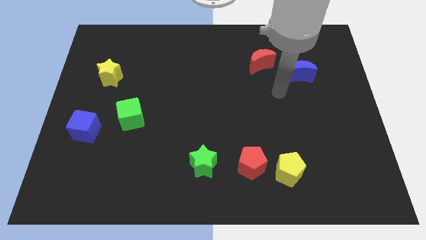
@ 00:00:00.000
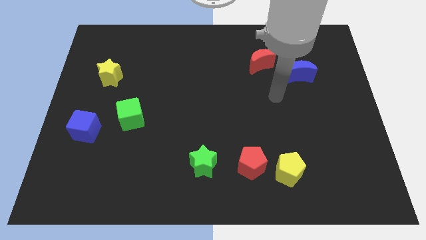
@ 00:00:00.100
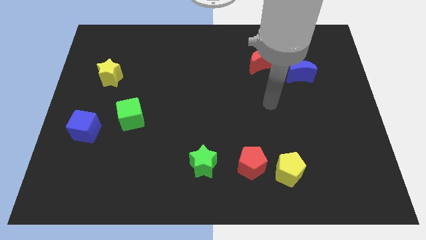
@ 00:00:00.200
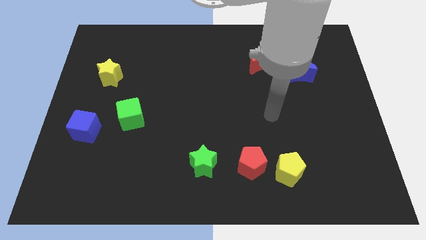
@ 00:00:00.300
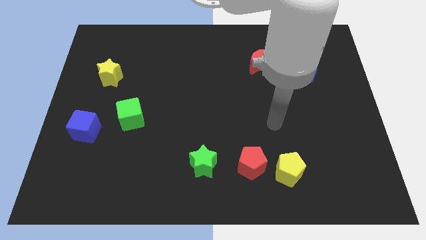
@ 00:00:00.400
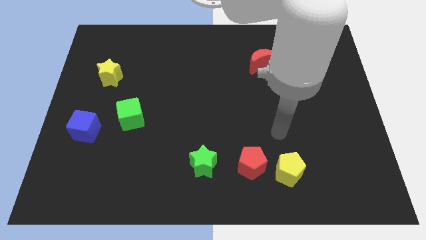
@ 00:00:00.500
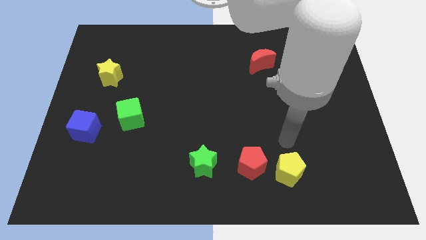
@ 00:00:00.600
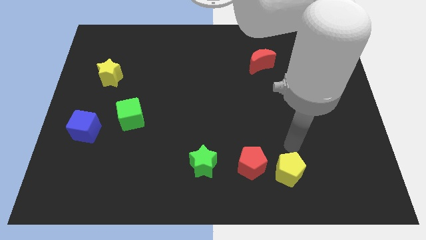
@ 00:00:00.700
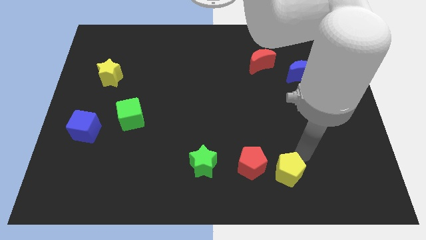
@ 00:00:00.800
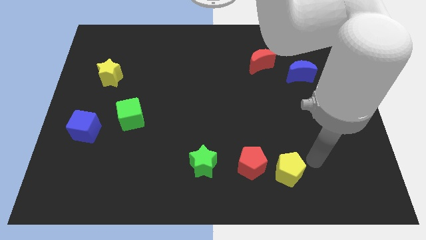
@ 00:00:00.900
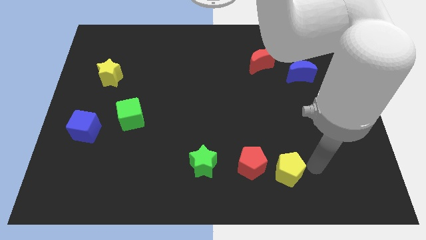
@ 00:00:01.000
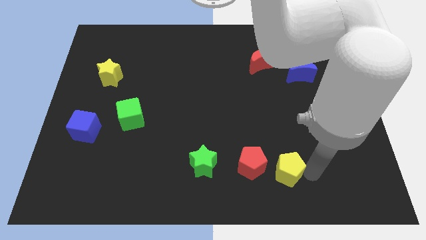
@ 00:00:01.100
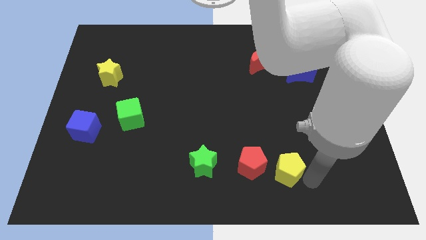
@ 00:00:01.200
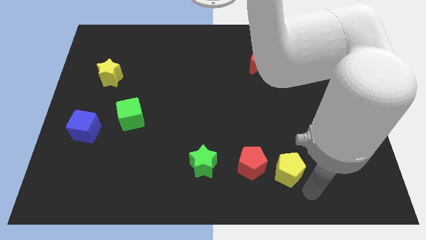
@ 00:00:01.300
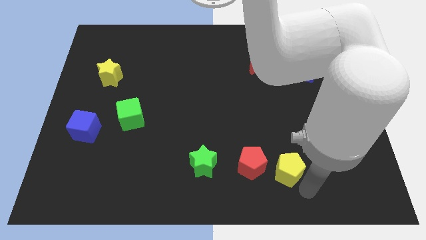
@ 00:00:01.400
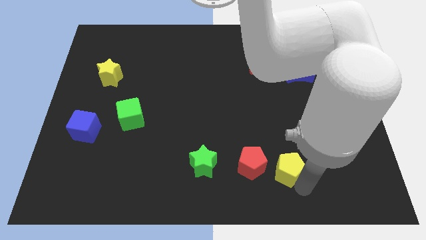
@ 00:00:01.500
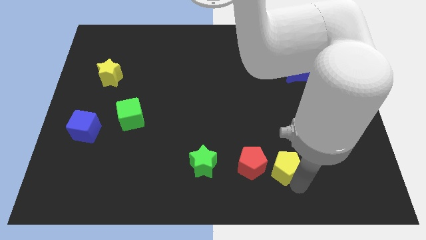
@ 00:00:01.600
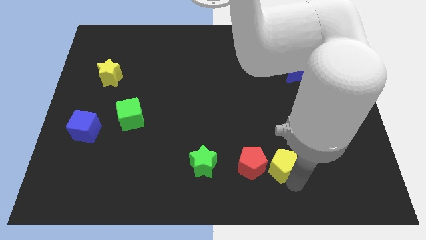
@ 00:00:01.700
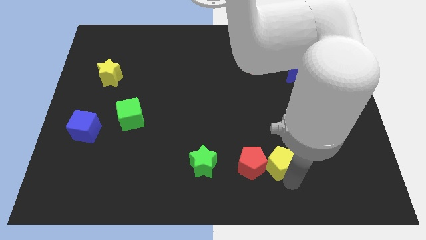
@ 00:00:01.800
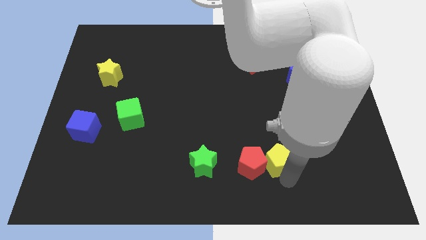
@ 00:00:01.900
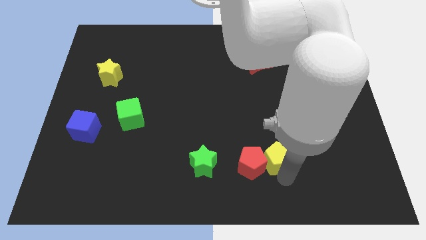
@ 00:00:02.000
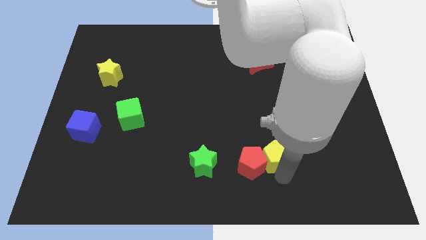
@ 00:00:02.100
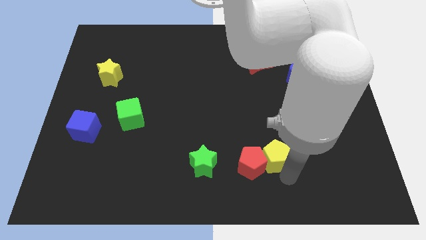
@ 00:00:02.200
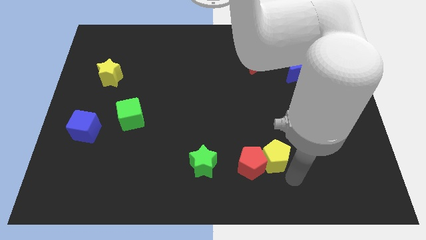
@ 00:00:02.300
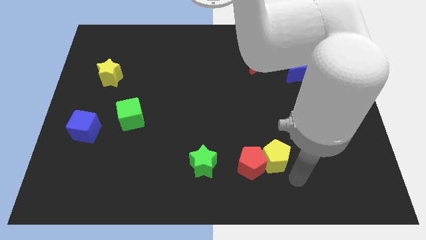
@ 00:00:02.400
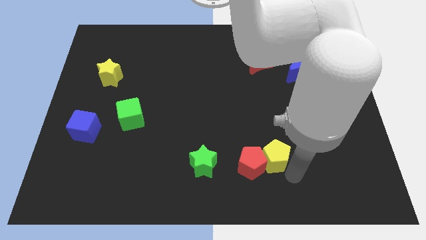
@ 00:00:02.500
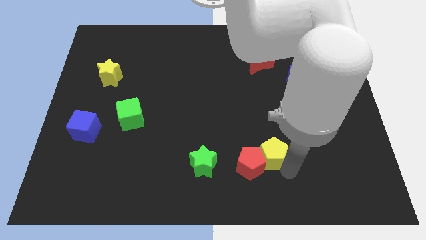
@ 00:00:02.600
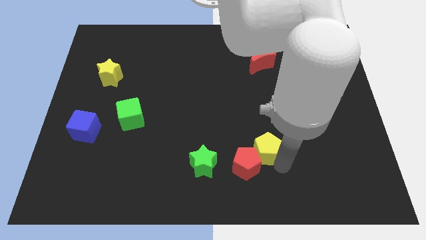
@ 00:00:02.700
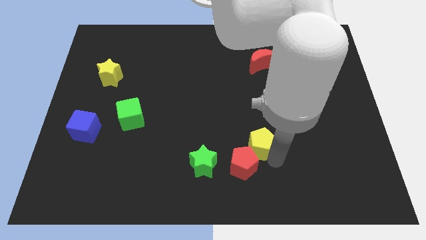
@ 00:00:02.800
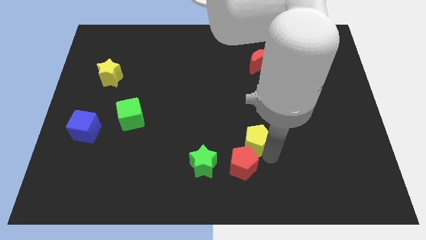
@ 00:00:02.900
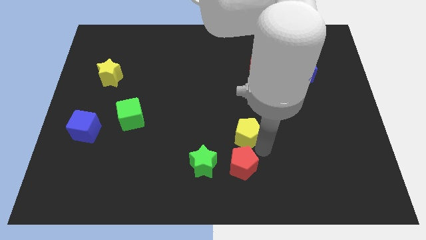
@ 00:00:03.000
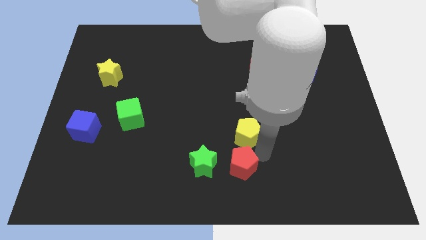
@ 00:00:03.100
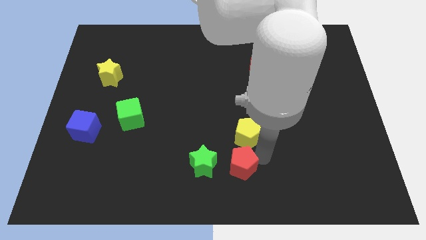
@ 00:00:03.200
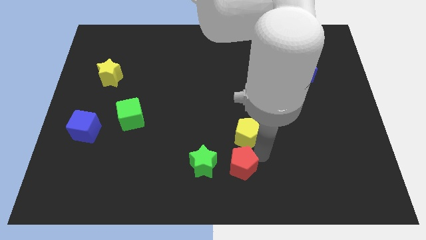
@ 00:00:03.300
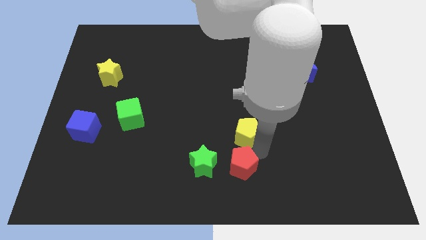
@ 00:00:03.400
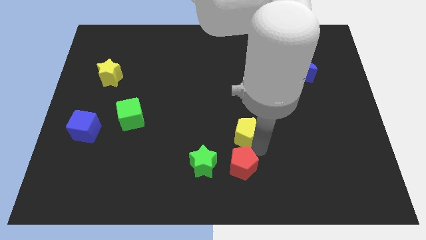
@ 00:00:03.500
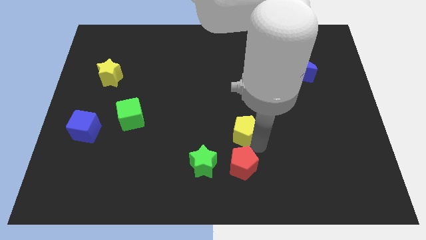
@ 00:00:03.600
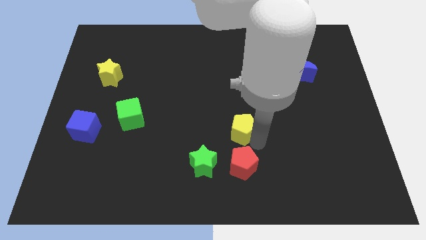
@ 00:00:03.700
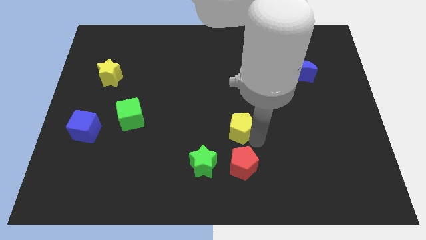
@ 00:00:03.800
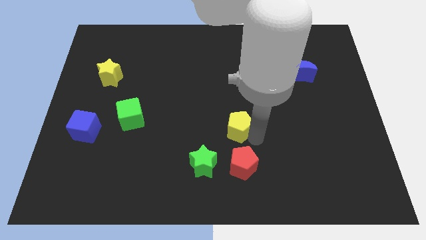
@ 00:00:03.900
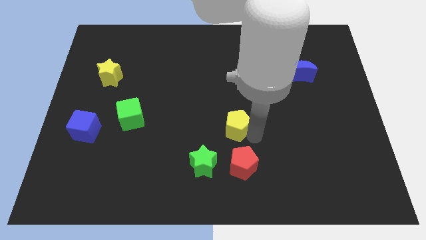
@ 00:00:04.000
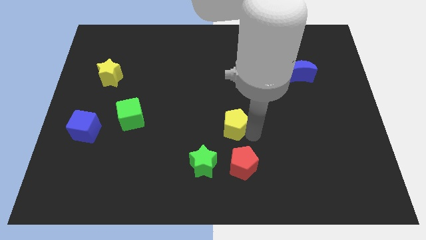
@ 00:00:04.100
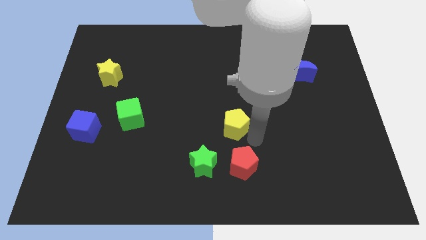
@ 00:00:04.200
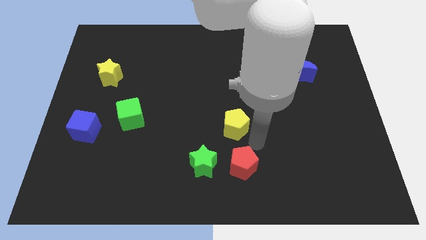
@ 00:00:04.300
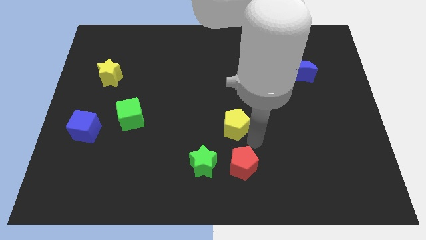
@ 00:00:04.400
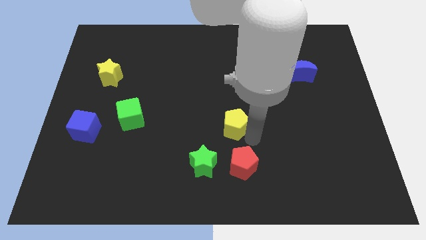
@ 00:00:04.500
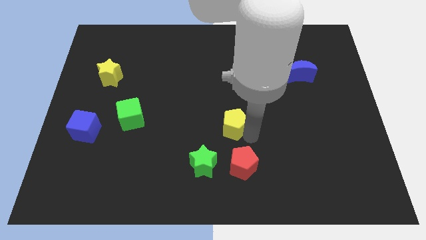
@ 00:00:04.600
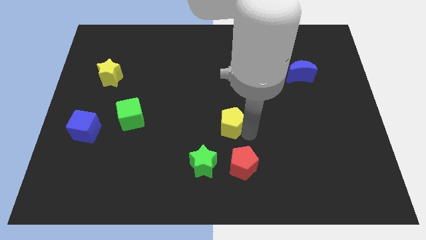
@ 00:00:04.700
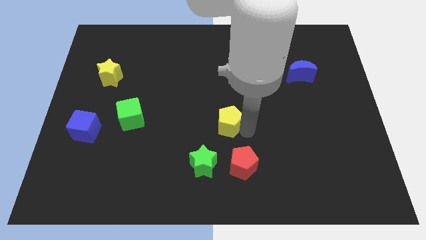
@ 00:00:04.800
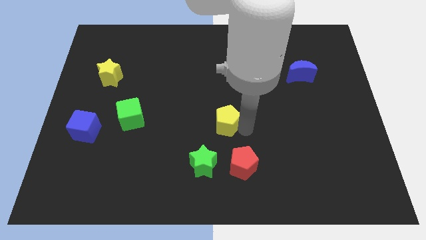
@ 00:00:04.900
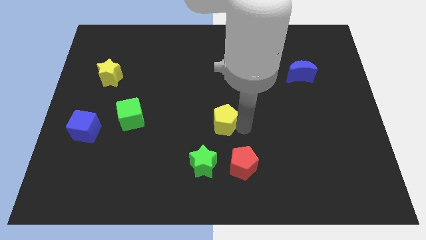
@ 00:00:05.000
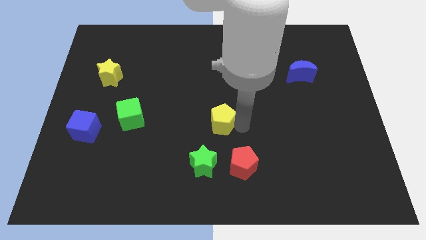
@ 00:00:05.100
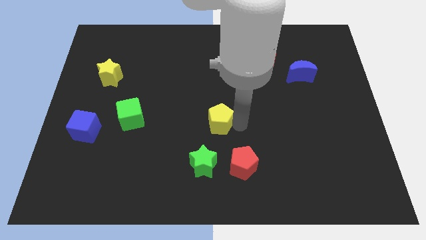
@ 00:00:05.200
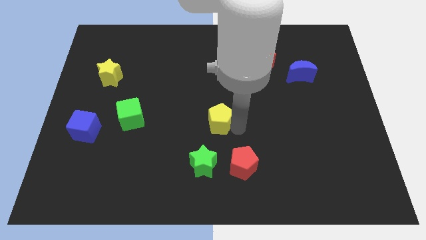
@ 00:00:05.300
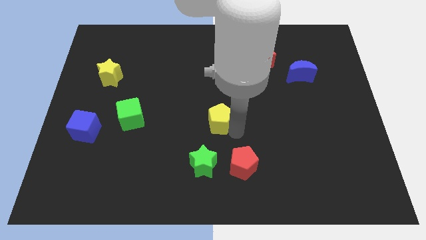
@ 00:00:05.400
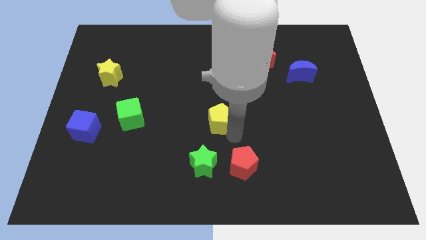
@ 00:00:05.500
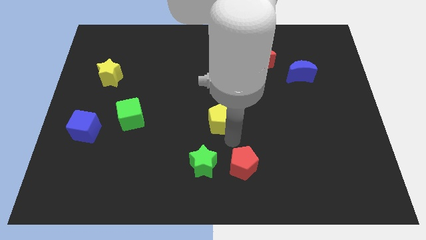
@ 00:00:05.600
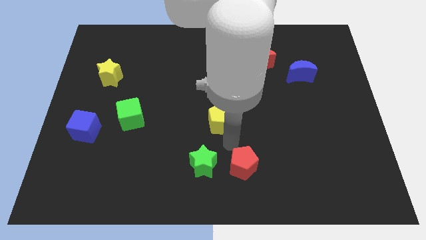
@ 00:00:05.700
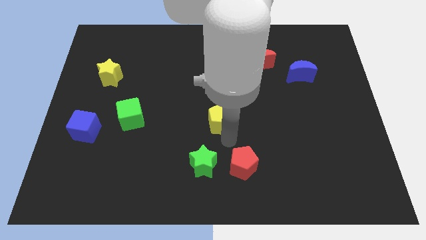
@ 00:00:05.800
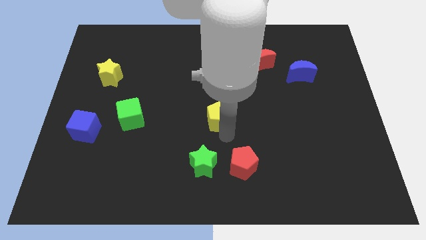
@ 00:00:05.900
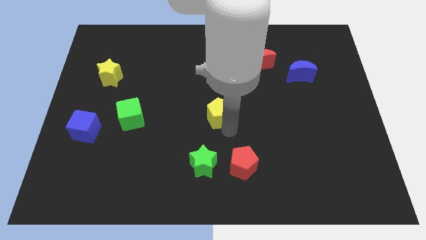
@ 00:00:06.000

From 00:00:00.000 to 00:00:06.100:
move the yellow pentagon diagonally upwards and to the left

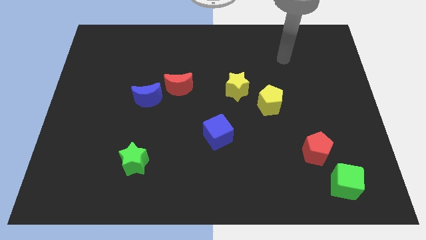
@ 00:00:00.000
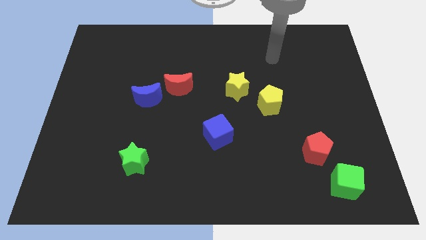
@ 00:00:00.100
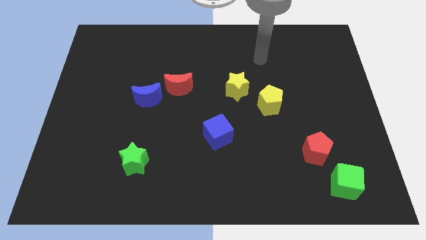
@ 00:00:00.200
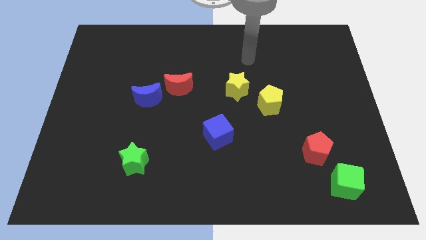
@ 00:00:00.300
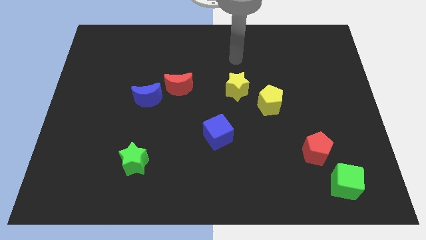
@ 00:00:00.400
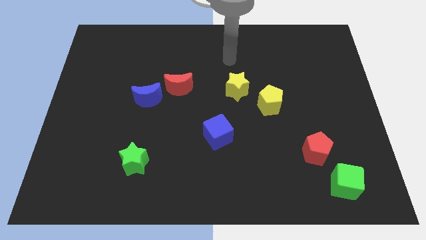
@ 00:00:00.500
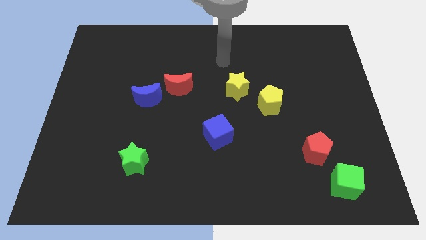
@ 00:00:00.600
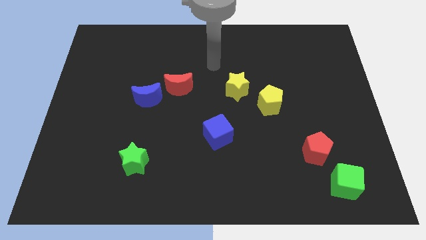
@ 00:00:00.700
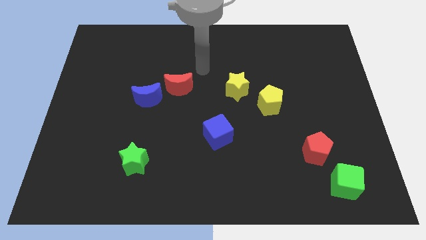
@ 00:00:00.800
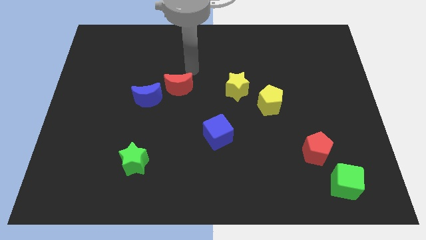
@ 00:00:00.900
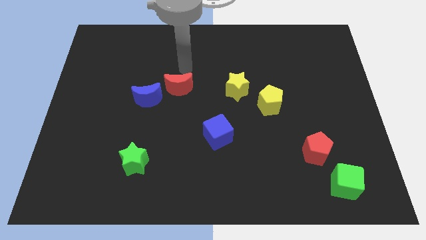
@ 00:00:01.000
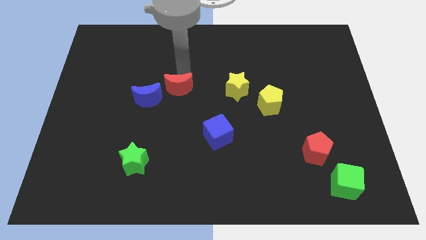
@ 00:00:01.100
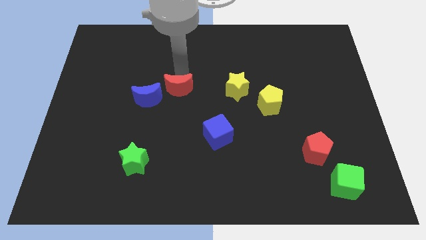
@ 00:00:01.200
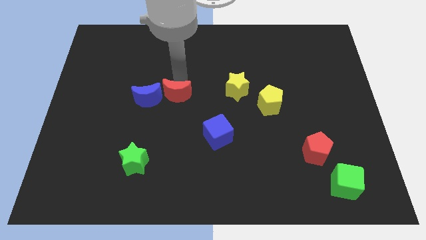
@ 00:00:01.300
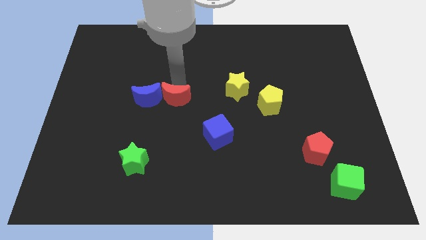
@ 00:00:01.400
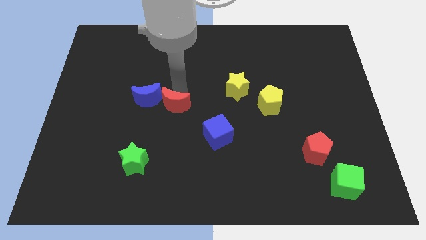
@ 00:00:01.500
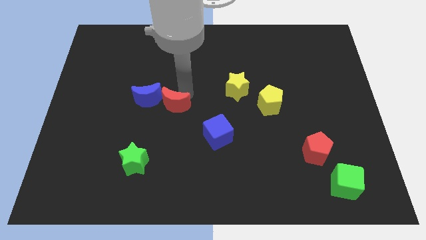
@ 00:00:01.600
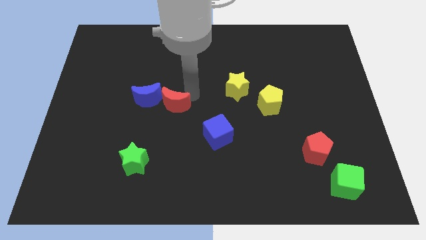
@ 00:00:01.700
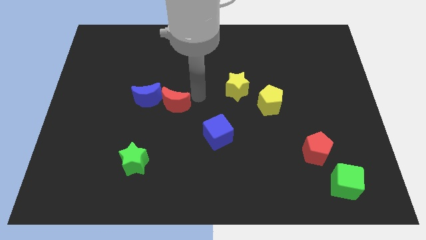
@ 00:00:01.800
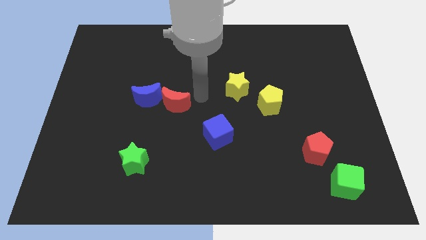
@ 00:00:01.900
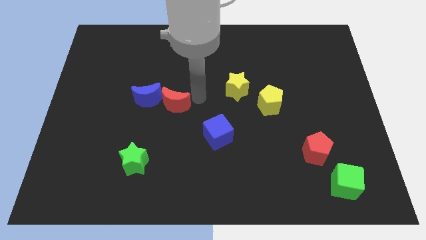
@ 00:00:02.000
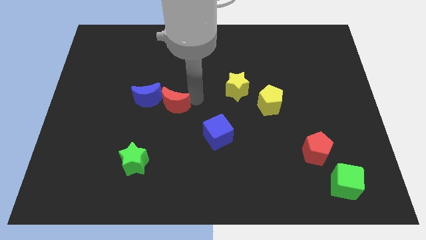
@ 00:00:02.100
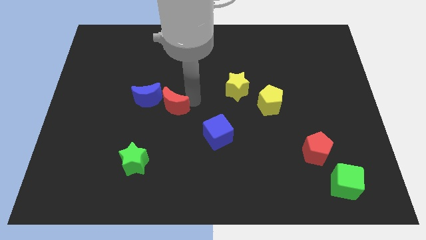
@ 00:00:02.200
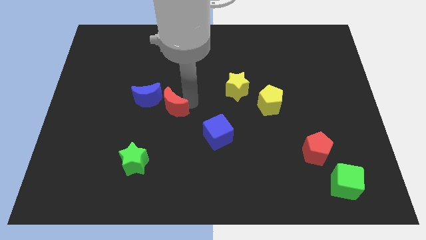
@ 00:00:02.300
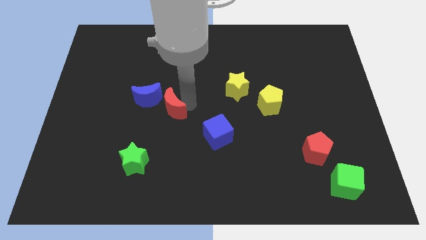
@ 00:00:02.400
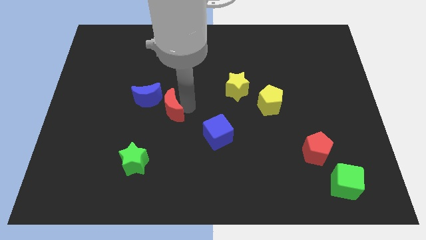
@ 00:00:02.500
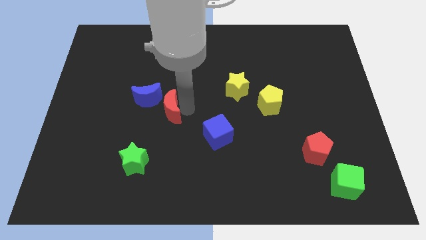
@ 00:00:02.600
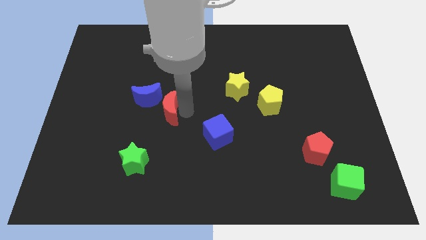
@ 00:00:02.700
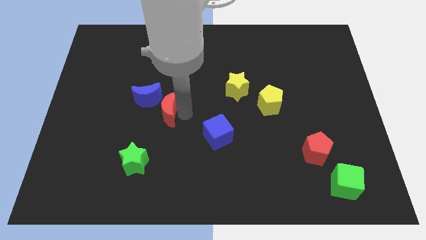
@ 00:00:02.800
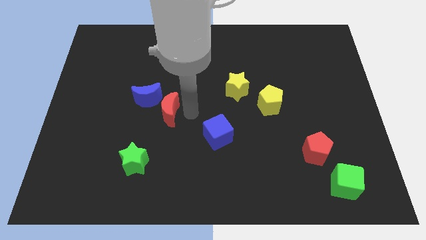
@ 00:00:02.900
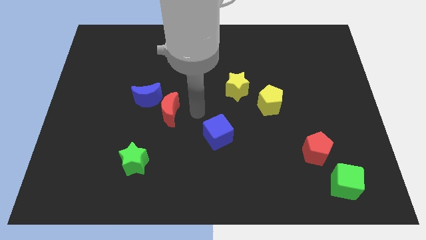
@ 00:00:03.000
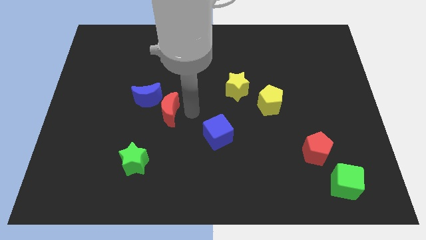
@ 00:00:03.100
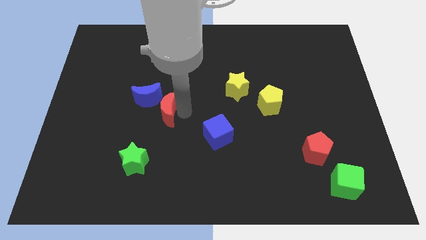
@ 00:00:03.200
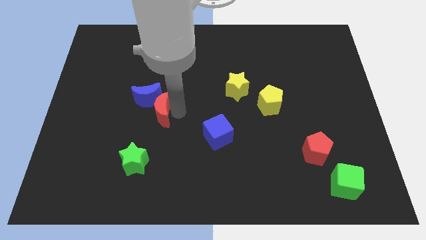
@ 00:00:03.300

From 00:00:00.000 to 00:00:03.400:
slide the red moon downwards and then left a bit
